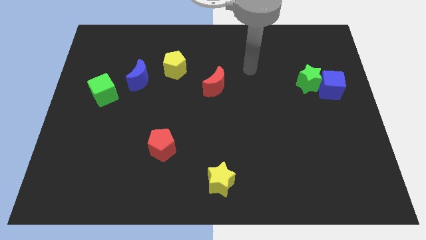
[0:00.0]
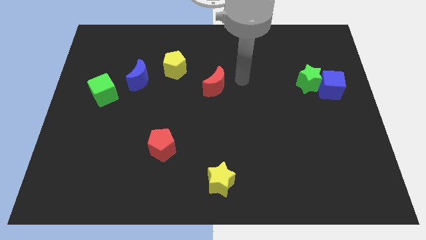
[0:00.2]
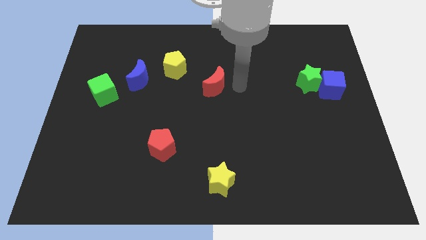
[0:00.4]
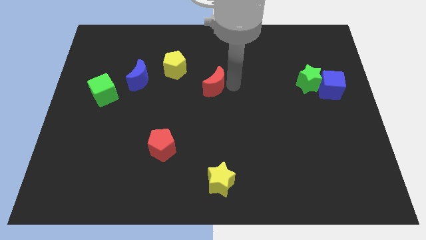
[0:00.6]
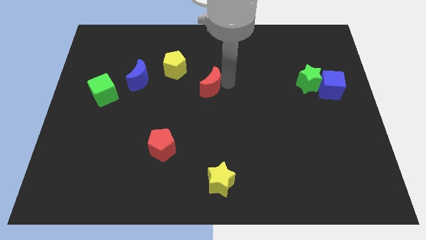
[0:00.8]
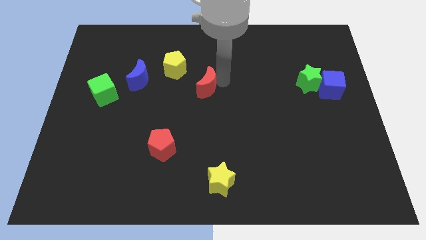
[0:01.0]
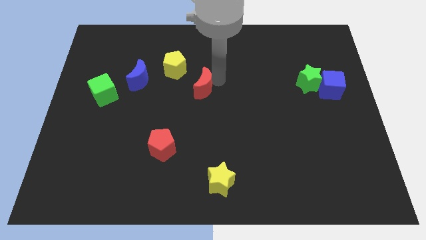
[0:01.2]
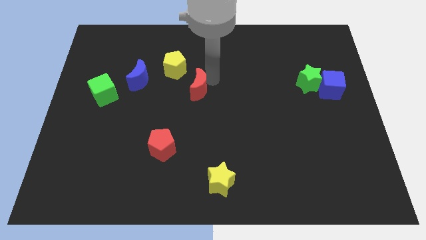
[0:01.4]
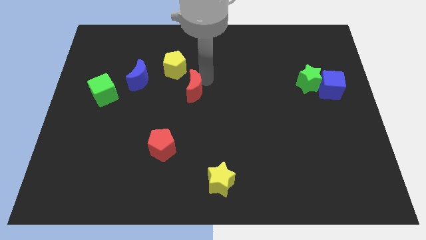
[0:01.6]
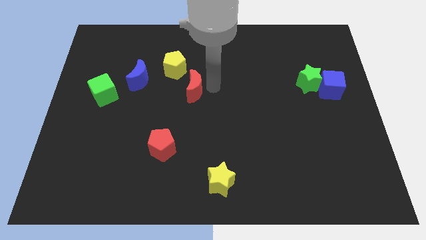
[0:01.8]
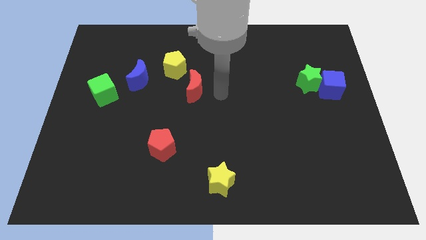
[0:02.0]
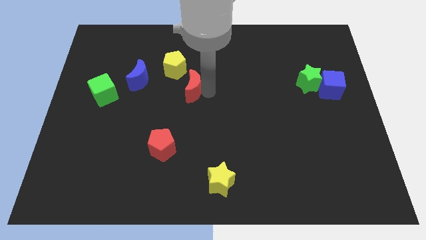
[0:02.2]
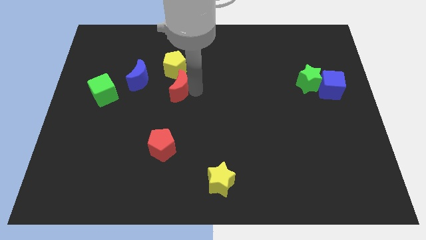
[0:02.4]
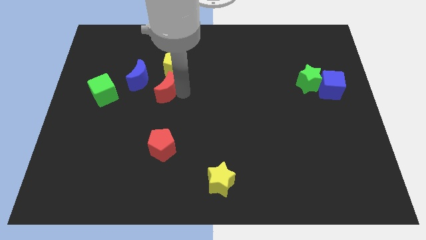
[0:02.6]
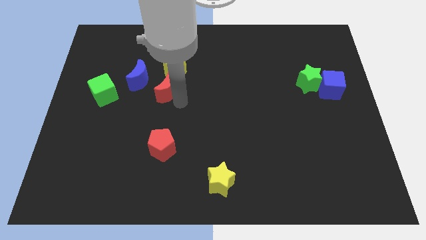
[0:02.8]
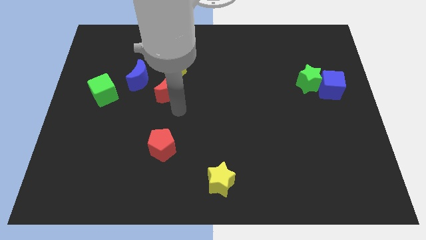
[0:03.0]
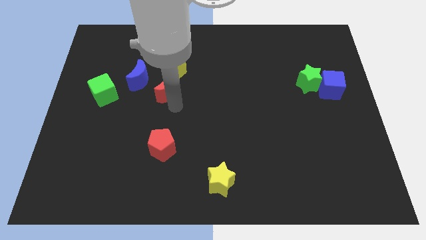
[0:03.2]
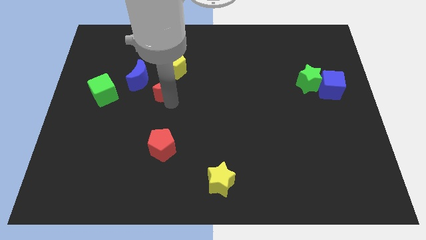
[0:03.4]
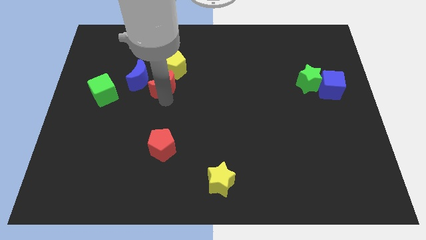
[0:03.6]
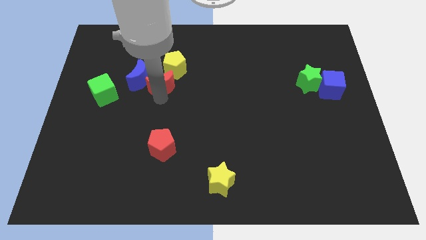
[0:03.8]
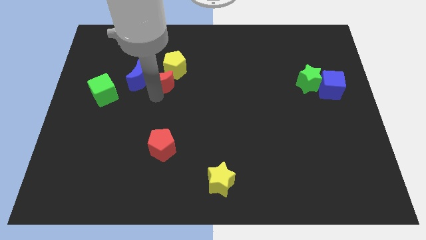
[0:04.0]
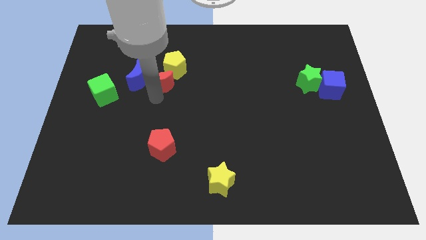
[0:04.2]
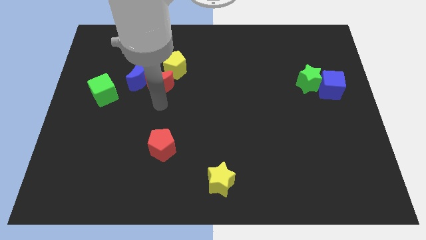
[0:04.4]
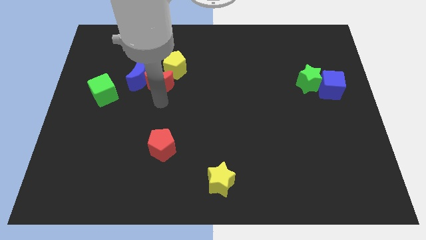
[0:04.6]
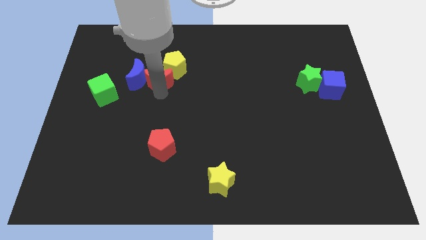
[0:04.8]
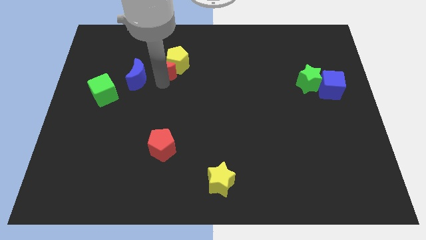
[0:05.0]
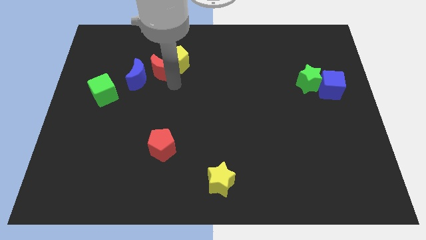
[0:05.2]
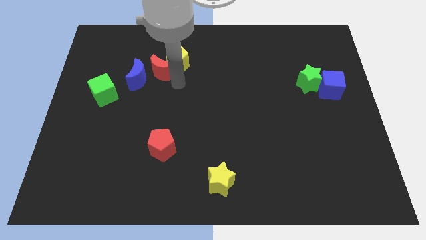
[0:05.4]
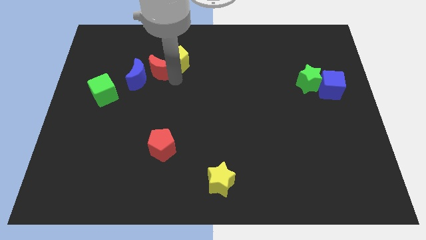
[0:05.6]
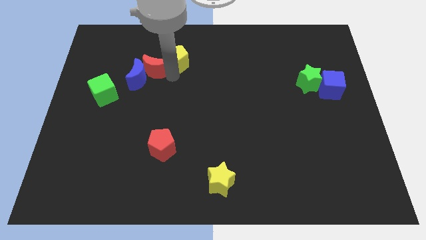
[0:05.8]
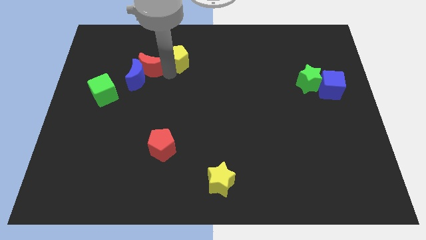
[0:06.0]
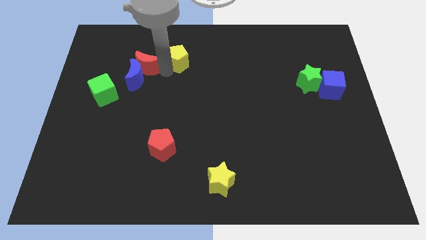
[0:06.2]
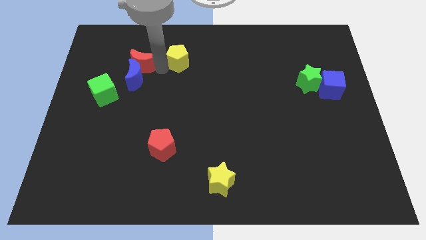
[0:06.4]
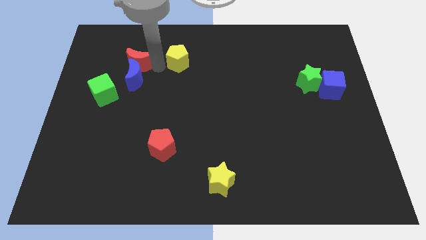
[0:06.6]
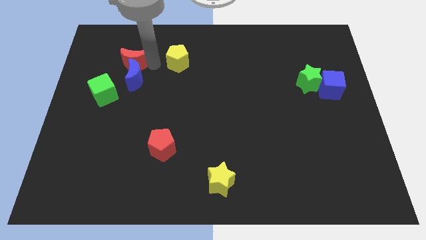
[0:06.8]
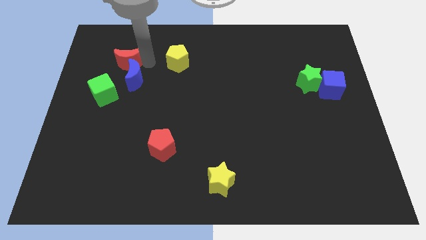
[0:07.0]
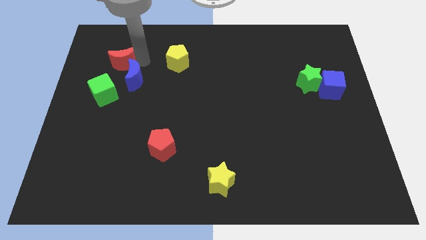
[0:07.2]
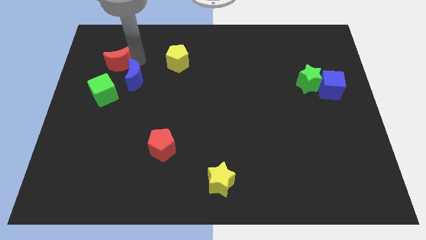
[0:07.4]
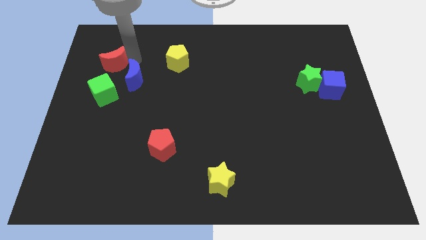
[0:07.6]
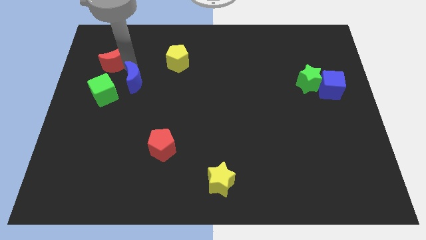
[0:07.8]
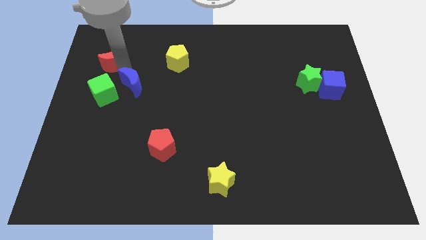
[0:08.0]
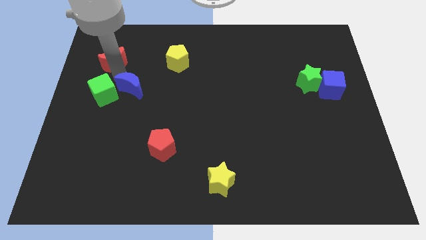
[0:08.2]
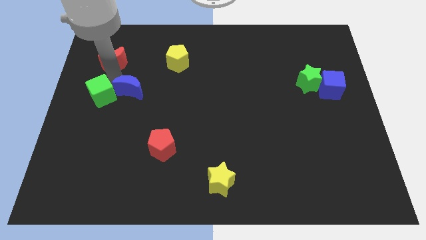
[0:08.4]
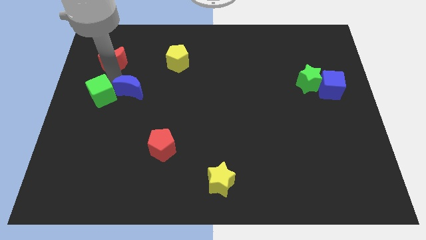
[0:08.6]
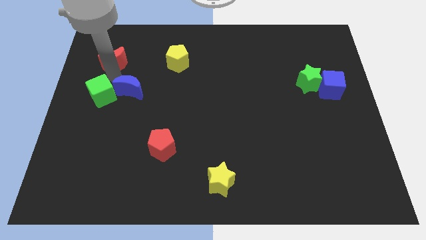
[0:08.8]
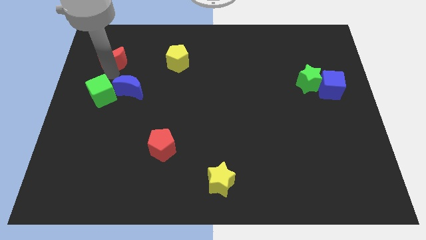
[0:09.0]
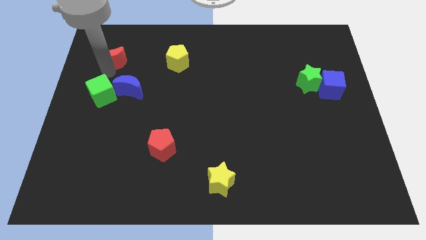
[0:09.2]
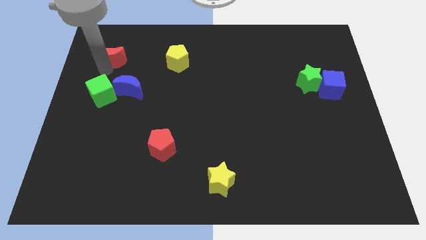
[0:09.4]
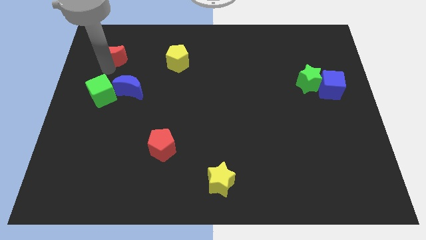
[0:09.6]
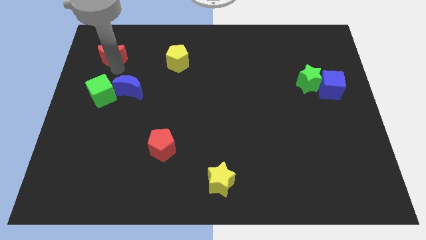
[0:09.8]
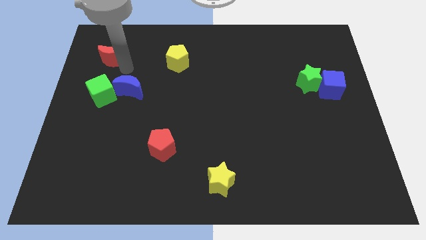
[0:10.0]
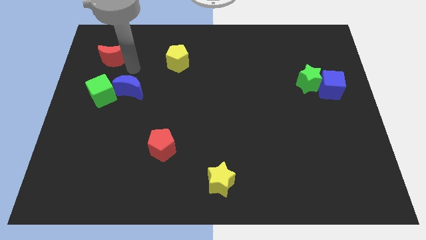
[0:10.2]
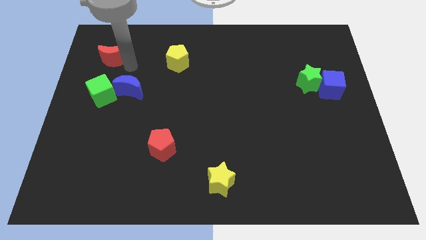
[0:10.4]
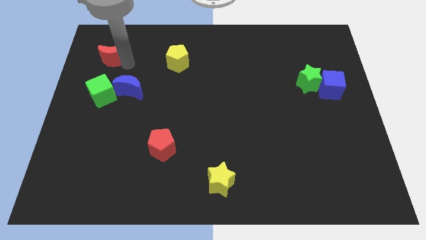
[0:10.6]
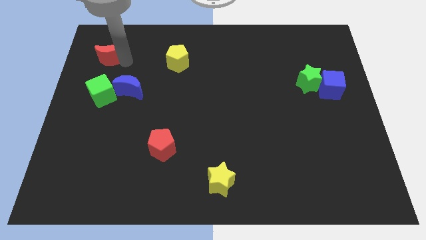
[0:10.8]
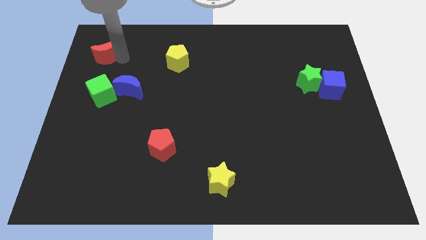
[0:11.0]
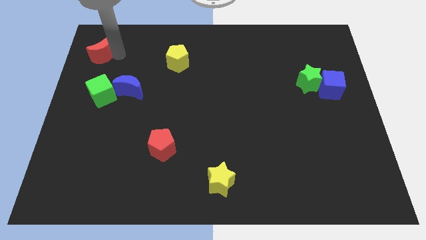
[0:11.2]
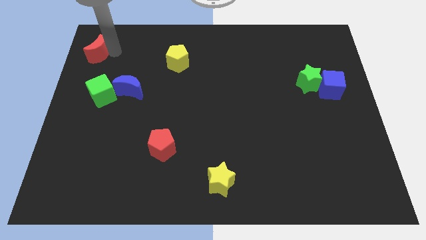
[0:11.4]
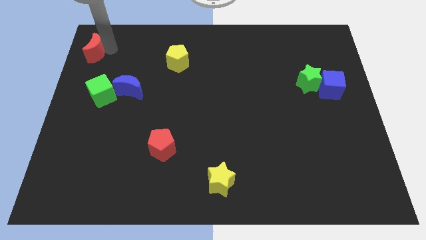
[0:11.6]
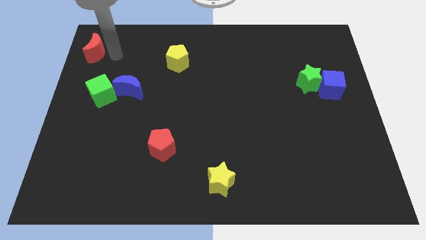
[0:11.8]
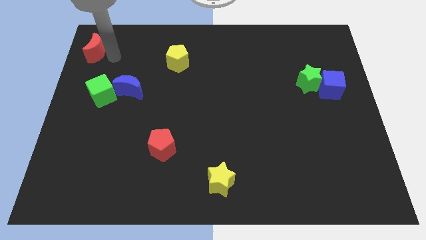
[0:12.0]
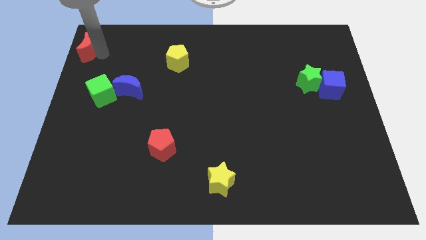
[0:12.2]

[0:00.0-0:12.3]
slide the red moon to the top left corner
